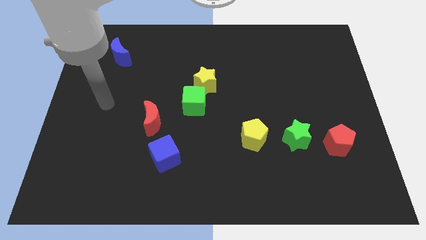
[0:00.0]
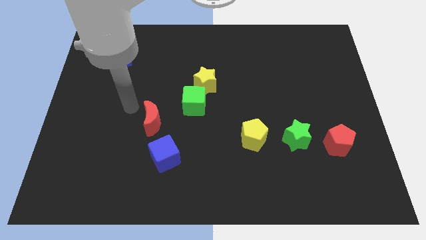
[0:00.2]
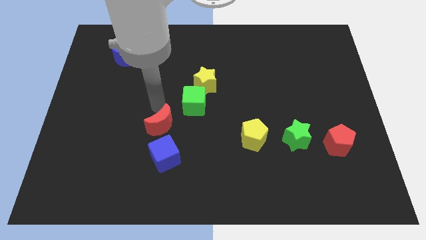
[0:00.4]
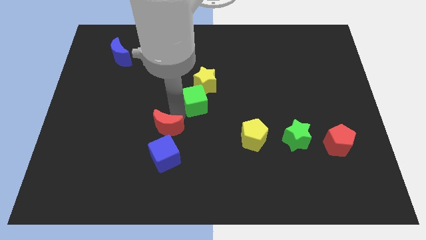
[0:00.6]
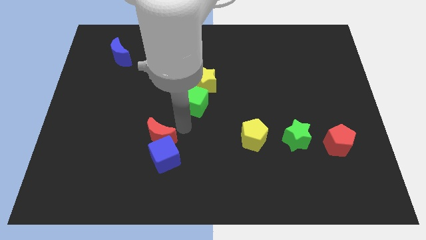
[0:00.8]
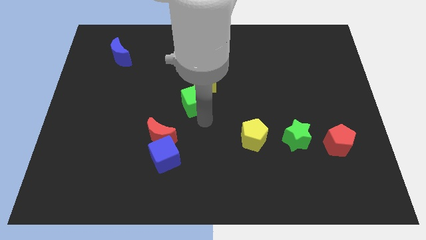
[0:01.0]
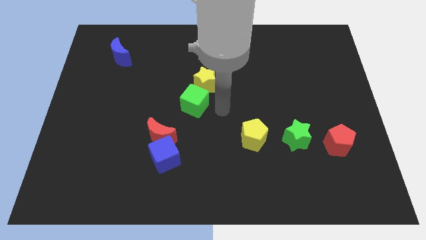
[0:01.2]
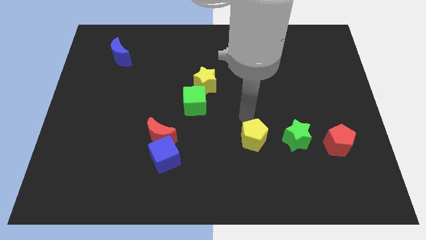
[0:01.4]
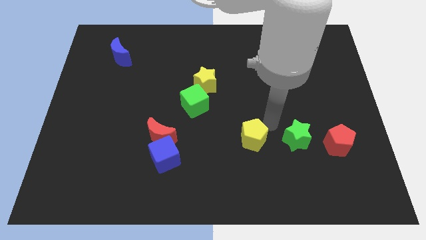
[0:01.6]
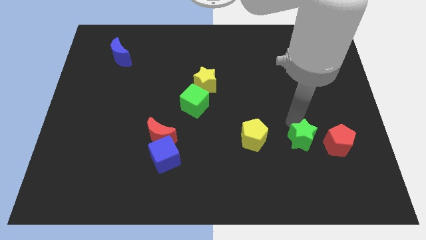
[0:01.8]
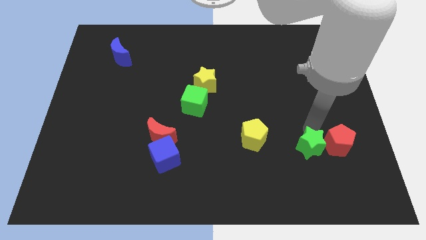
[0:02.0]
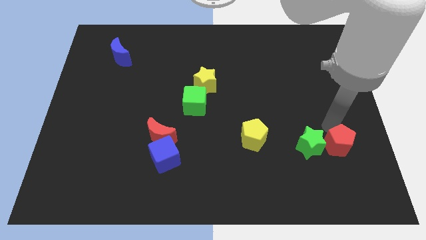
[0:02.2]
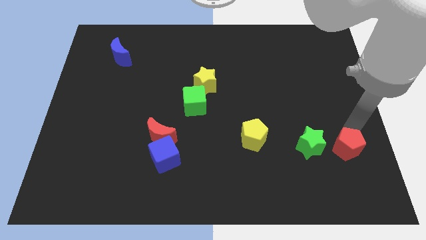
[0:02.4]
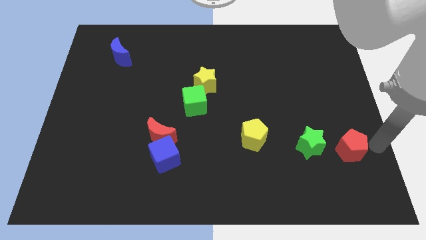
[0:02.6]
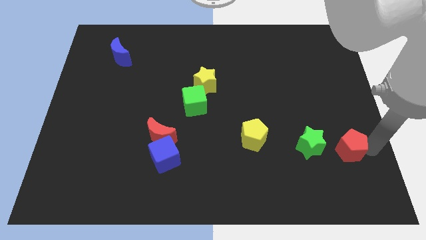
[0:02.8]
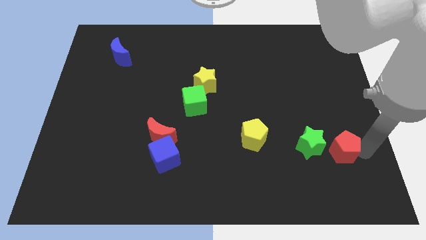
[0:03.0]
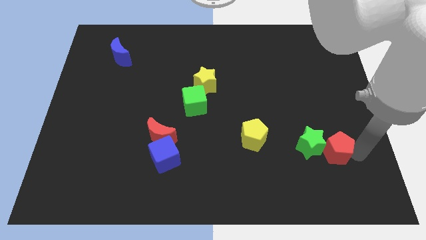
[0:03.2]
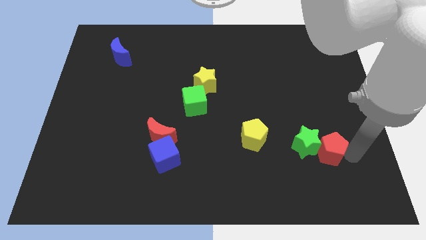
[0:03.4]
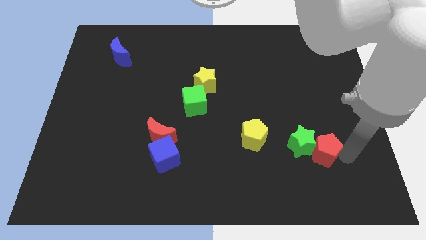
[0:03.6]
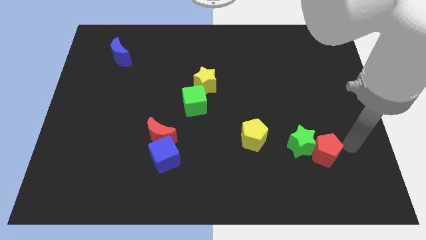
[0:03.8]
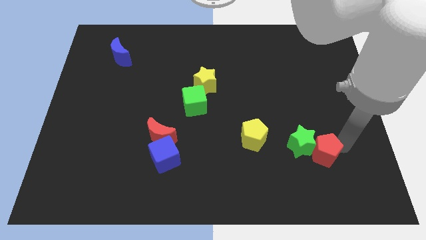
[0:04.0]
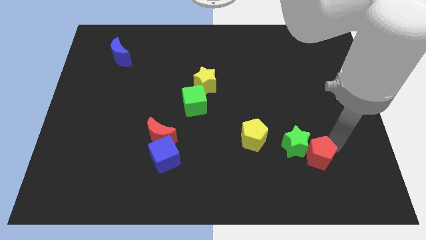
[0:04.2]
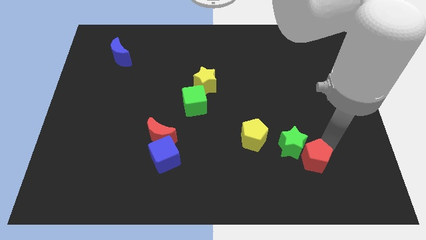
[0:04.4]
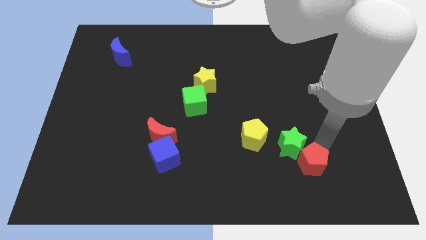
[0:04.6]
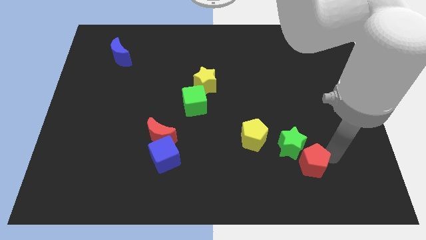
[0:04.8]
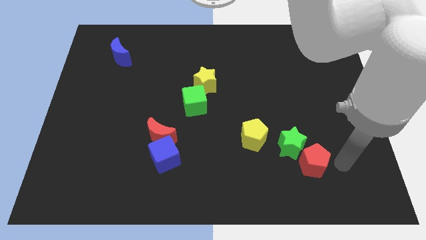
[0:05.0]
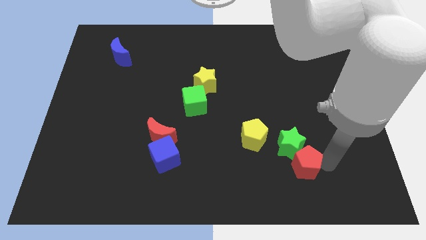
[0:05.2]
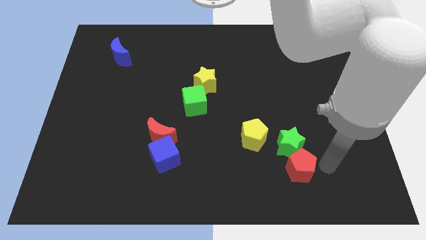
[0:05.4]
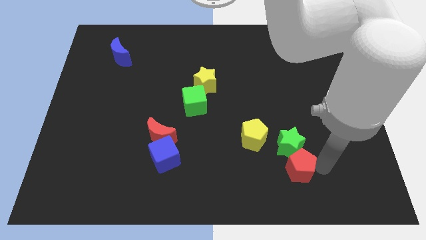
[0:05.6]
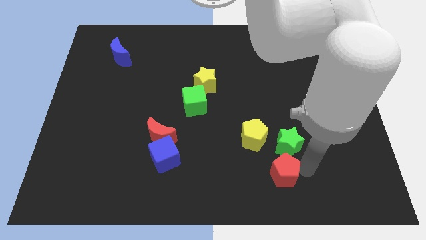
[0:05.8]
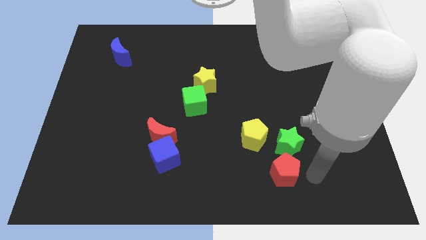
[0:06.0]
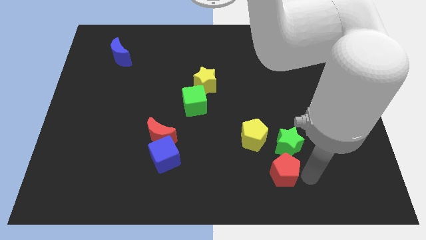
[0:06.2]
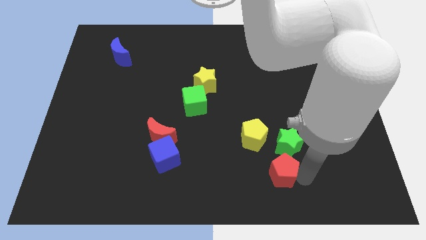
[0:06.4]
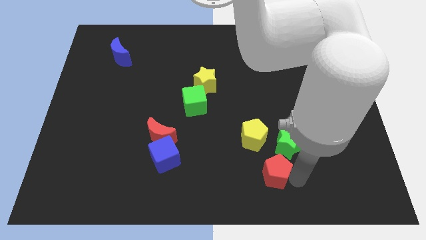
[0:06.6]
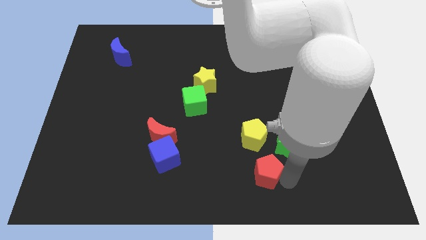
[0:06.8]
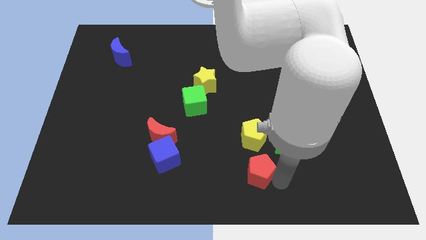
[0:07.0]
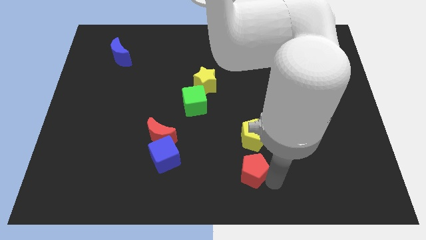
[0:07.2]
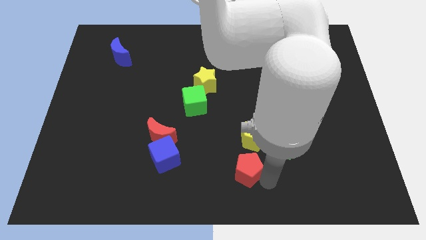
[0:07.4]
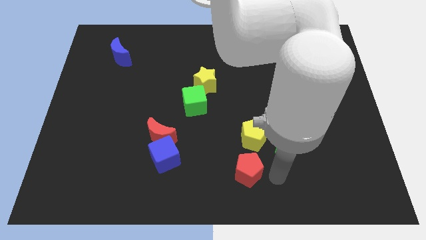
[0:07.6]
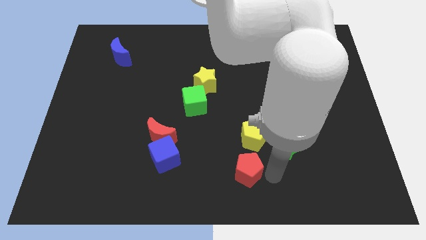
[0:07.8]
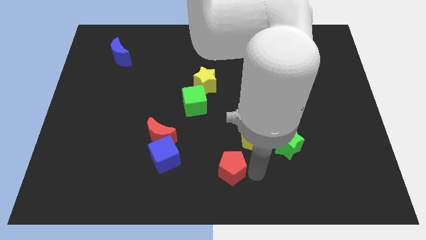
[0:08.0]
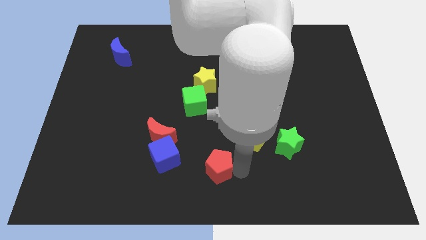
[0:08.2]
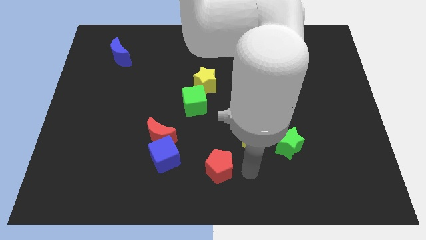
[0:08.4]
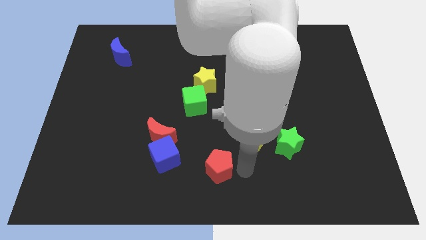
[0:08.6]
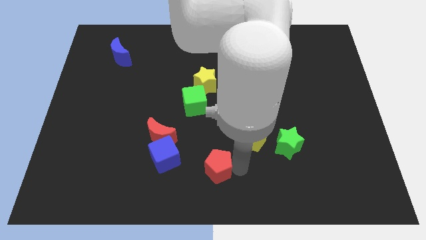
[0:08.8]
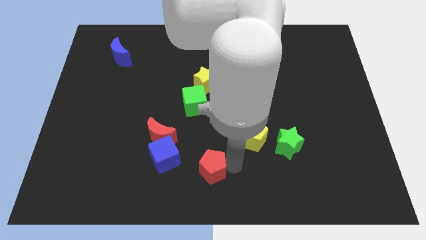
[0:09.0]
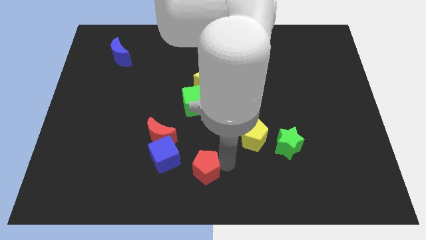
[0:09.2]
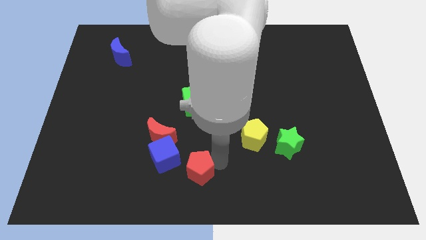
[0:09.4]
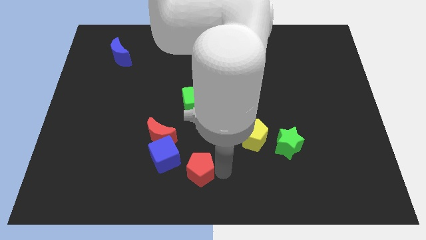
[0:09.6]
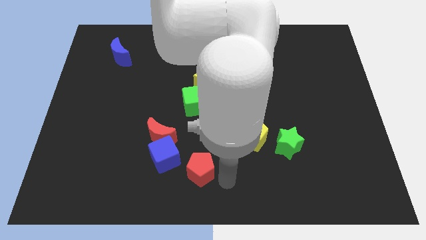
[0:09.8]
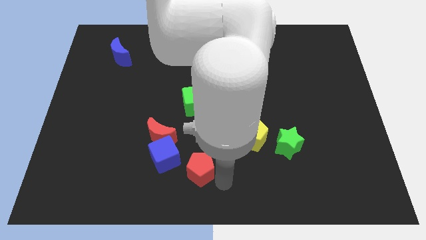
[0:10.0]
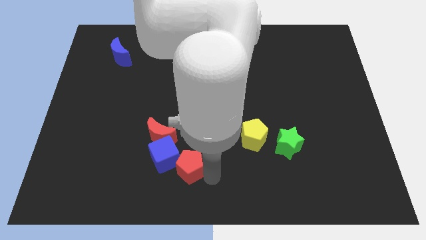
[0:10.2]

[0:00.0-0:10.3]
put the red pentagon towards the blue cube

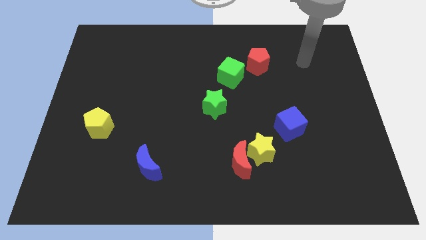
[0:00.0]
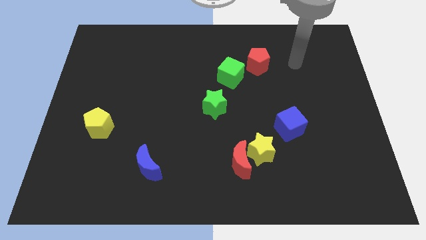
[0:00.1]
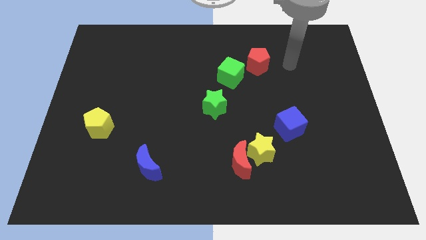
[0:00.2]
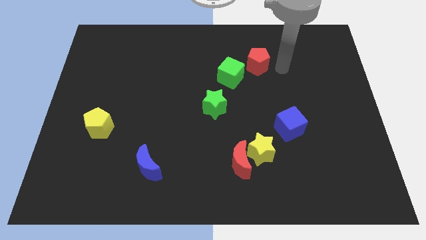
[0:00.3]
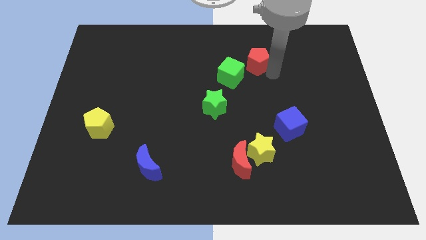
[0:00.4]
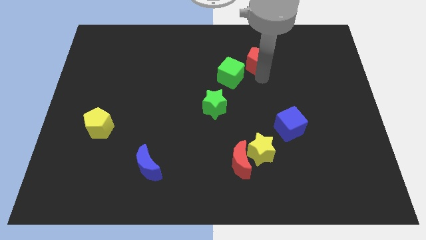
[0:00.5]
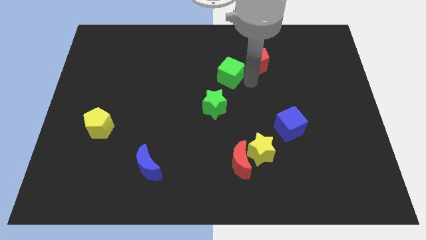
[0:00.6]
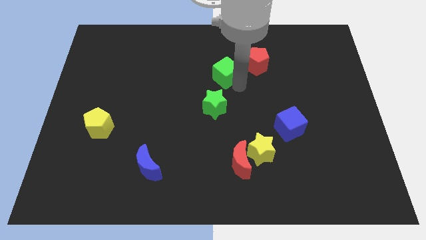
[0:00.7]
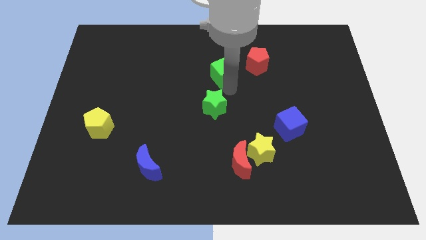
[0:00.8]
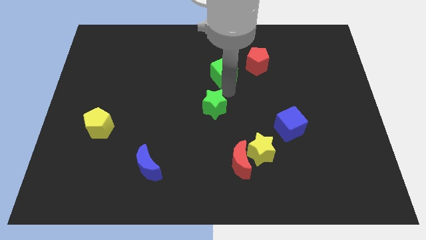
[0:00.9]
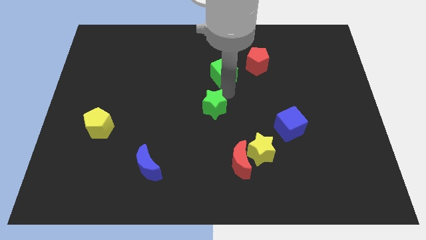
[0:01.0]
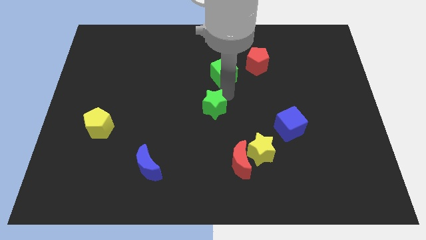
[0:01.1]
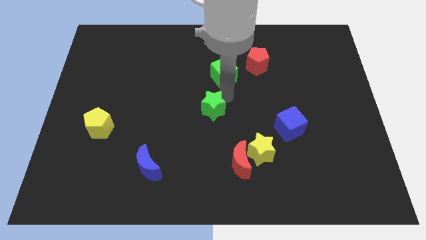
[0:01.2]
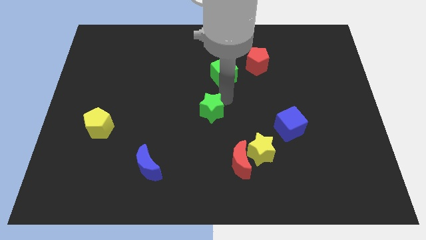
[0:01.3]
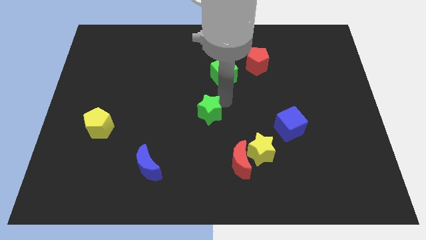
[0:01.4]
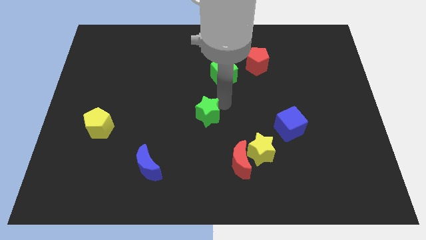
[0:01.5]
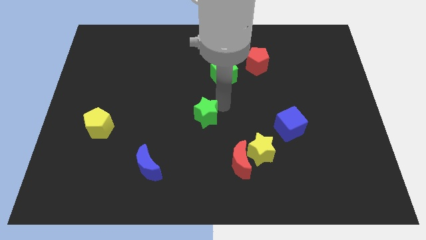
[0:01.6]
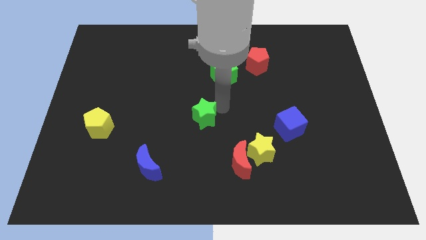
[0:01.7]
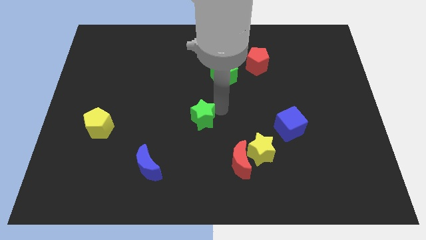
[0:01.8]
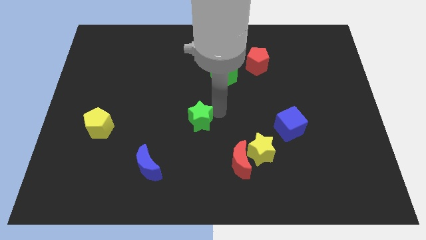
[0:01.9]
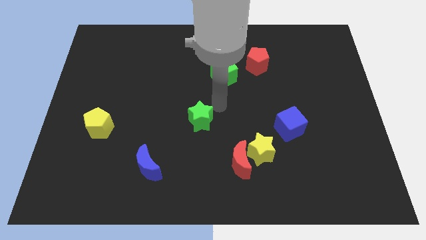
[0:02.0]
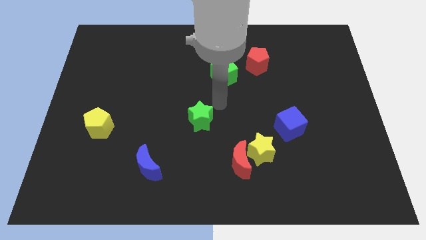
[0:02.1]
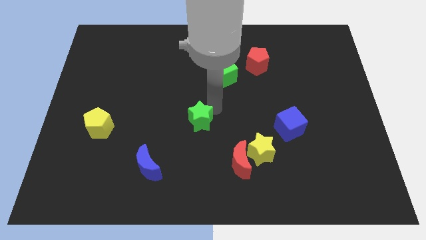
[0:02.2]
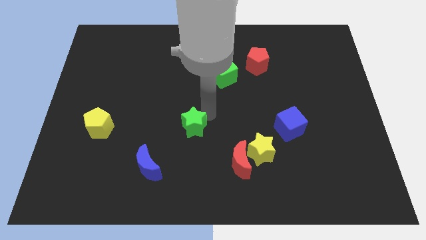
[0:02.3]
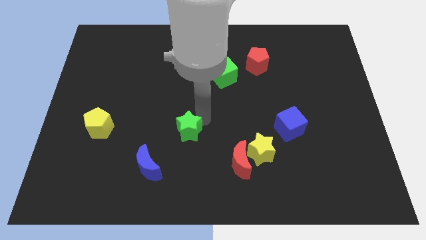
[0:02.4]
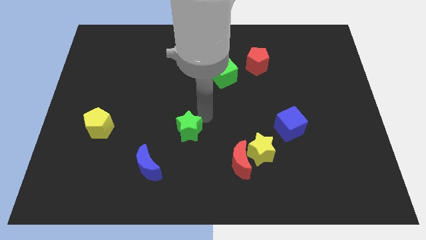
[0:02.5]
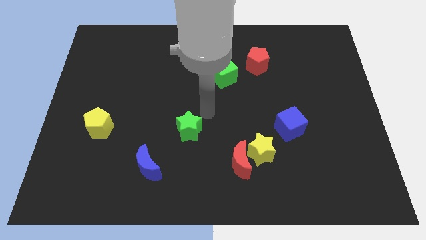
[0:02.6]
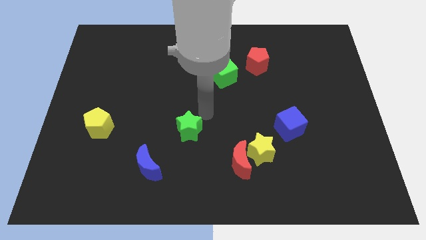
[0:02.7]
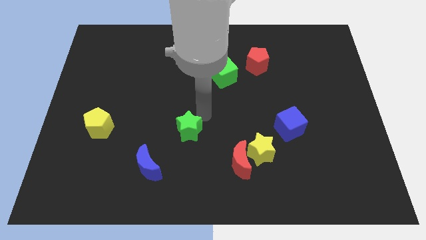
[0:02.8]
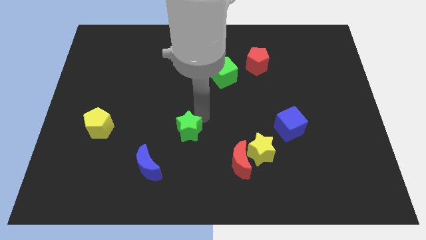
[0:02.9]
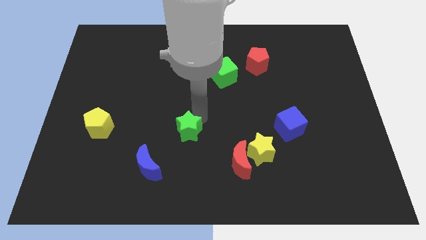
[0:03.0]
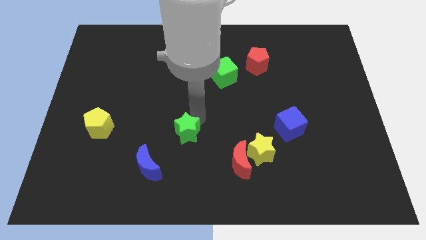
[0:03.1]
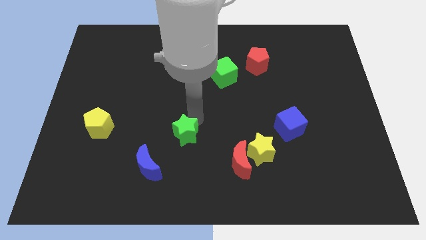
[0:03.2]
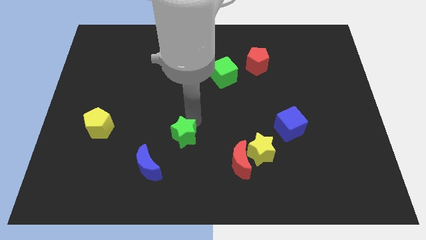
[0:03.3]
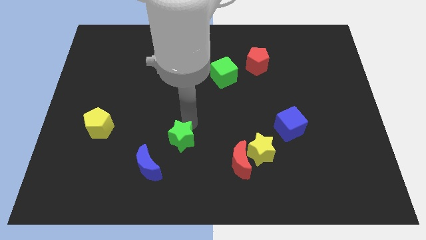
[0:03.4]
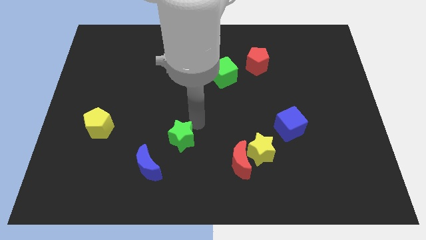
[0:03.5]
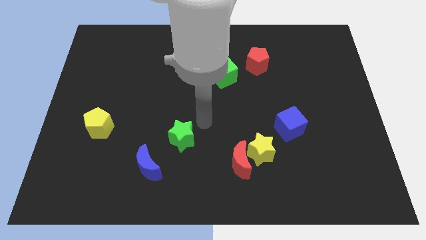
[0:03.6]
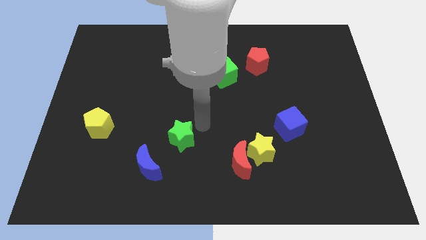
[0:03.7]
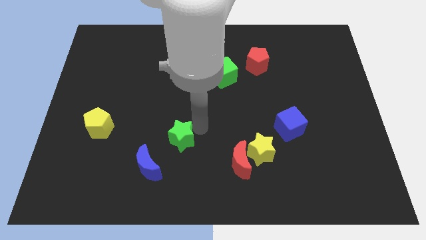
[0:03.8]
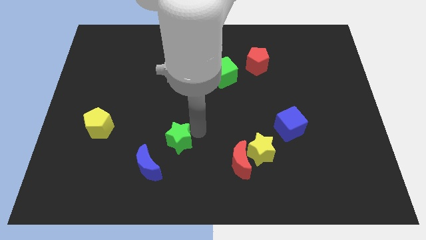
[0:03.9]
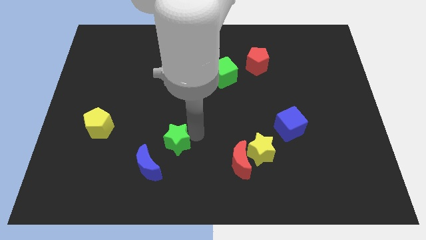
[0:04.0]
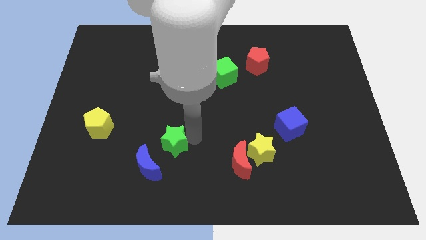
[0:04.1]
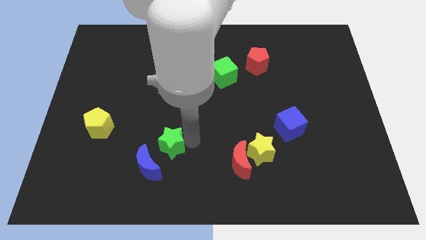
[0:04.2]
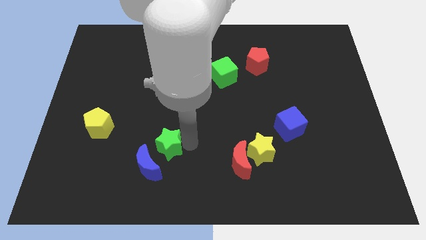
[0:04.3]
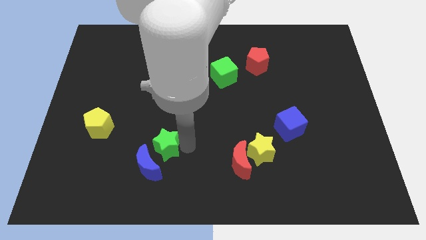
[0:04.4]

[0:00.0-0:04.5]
put the green star close to the blue moon
